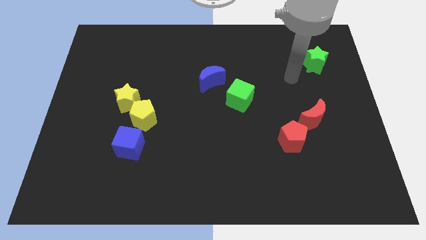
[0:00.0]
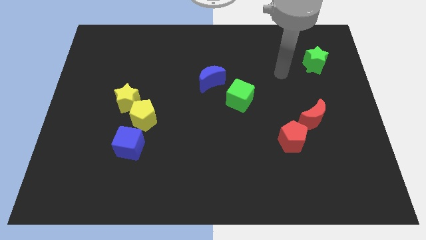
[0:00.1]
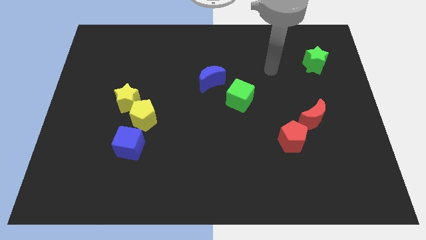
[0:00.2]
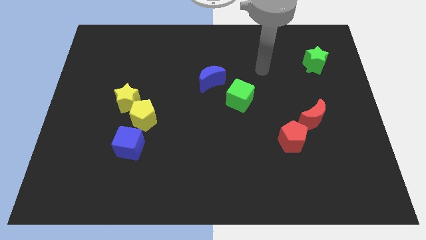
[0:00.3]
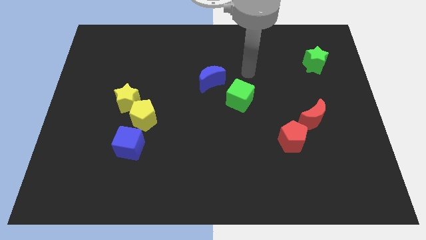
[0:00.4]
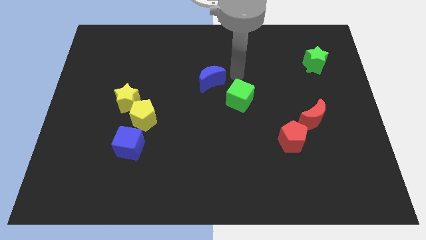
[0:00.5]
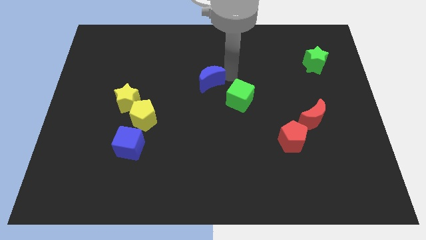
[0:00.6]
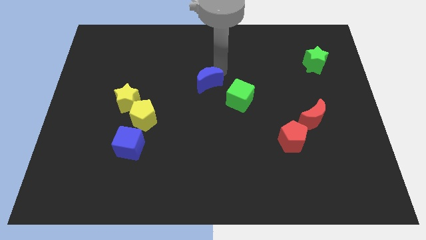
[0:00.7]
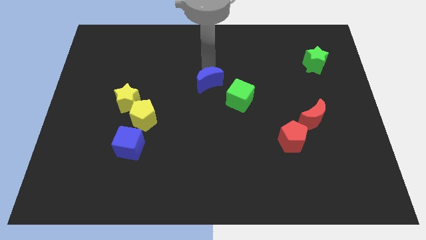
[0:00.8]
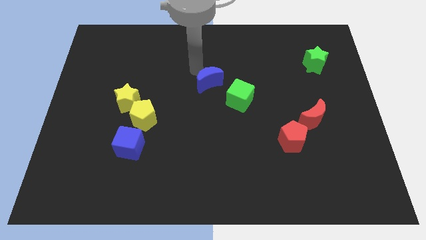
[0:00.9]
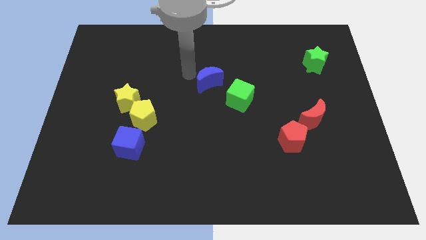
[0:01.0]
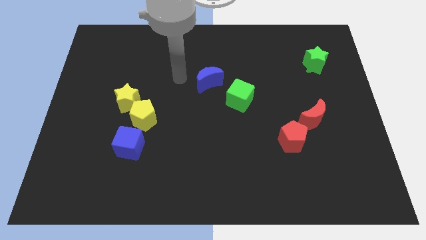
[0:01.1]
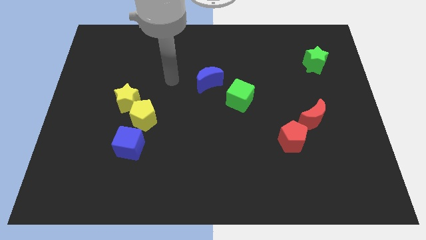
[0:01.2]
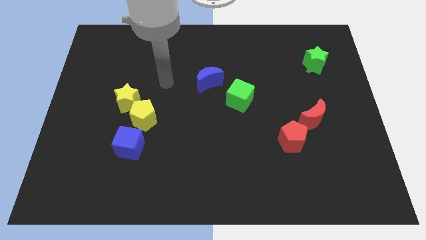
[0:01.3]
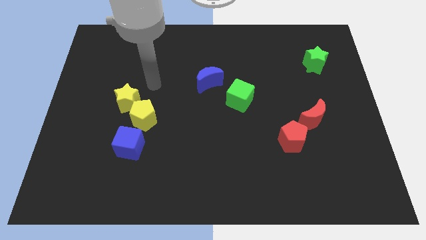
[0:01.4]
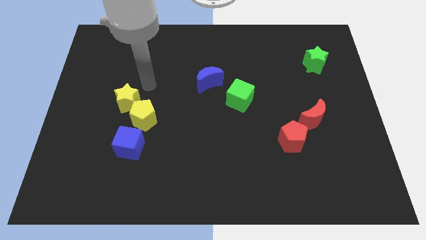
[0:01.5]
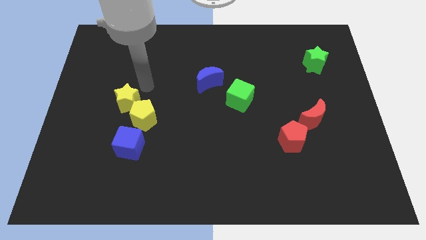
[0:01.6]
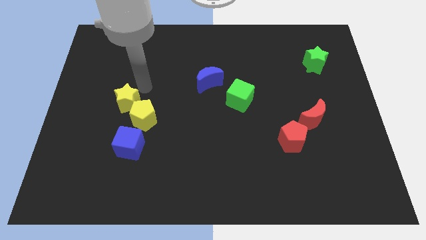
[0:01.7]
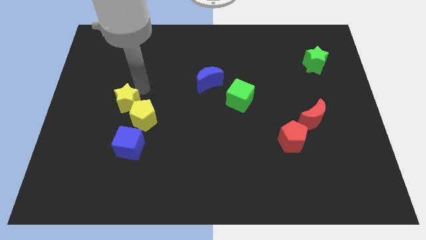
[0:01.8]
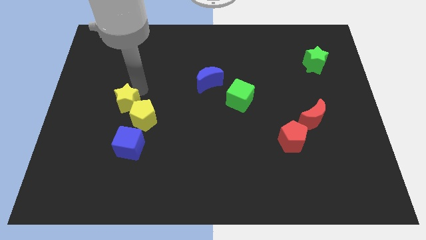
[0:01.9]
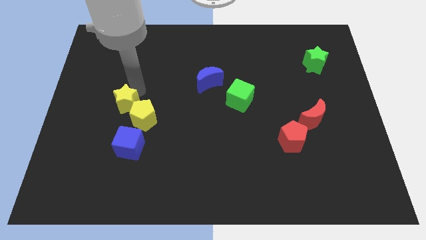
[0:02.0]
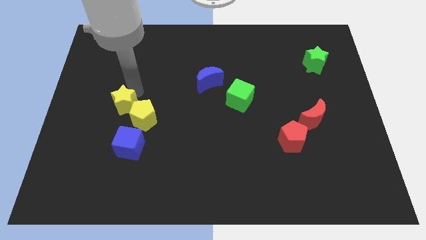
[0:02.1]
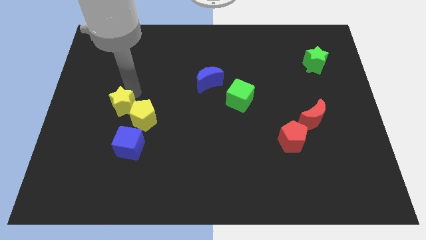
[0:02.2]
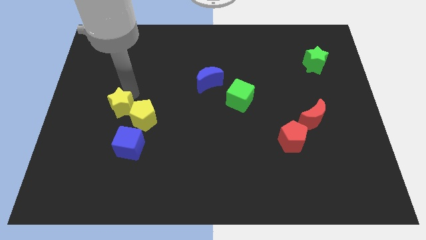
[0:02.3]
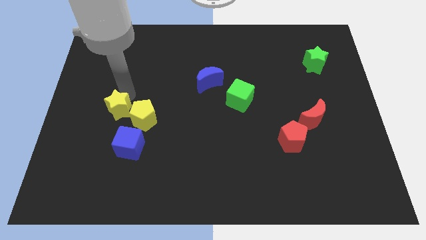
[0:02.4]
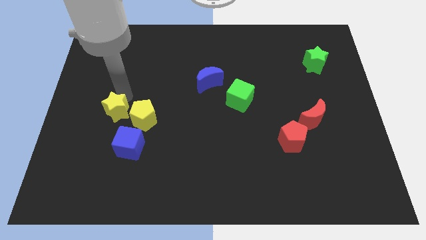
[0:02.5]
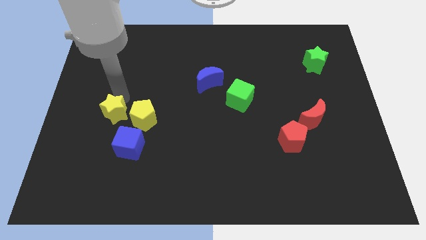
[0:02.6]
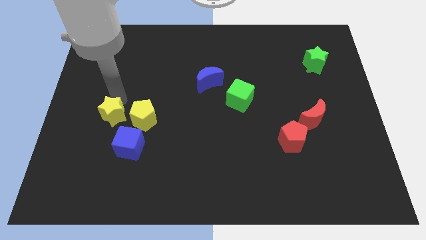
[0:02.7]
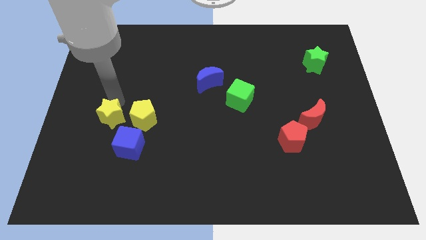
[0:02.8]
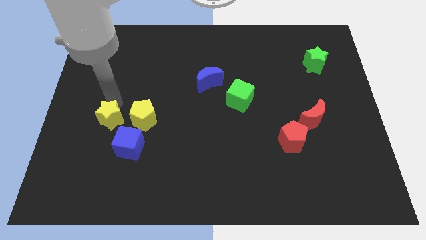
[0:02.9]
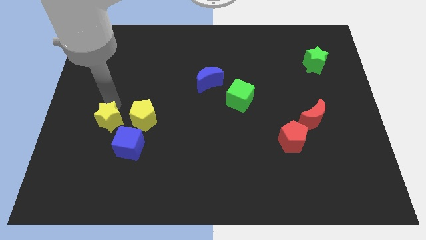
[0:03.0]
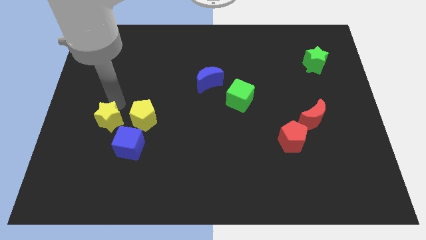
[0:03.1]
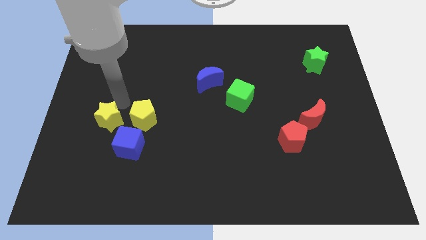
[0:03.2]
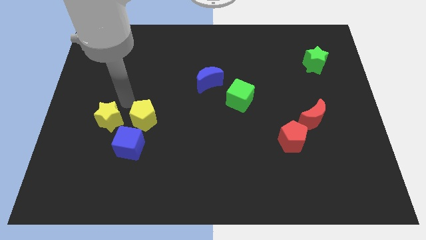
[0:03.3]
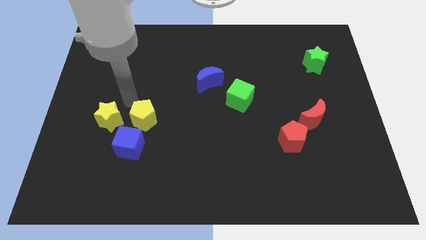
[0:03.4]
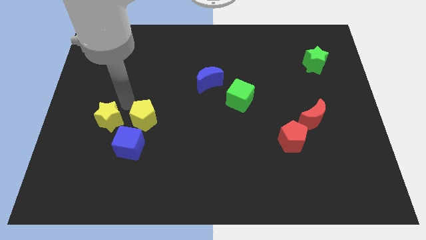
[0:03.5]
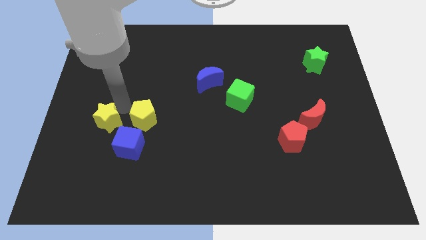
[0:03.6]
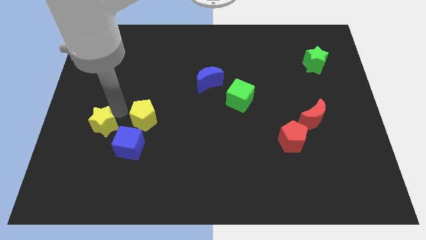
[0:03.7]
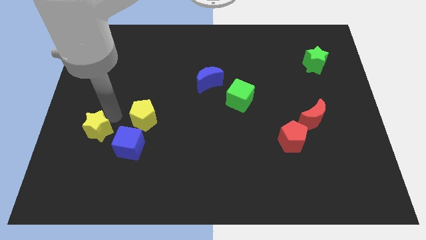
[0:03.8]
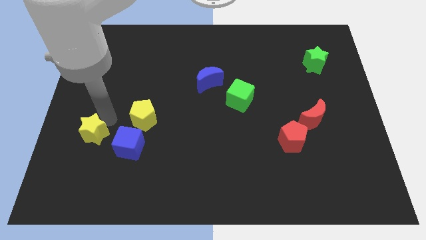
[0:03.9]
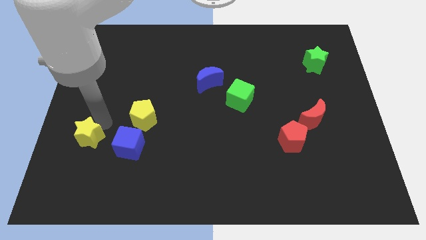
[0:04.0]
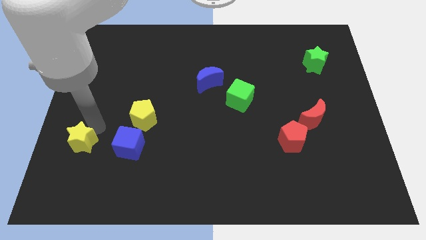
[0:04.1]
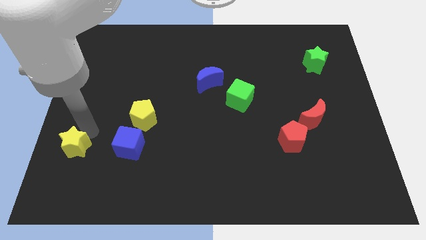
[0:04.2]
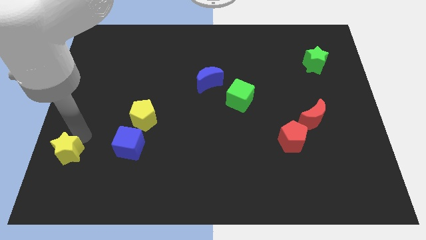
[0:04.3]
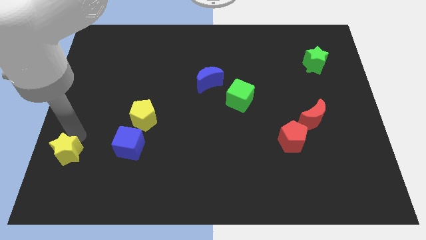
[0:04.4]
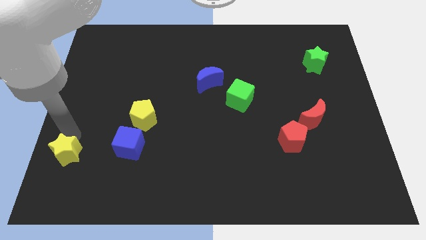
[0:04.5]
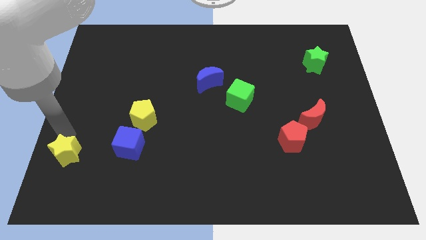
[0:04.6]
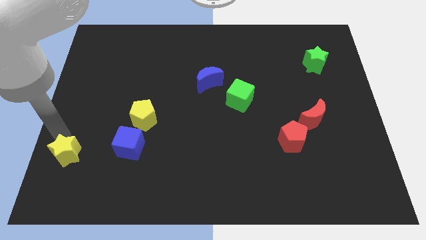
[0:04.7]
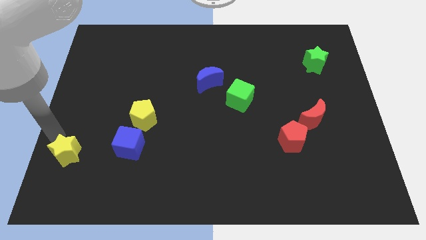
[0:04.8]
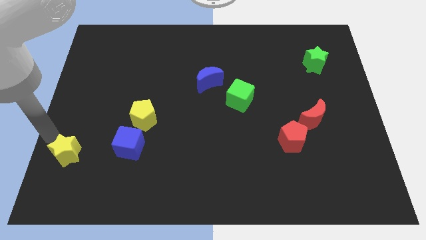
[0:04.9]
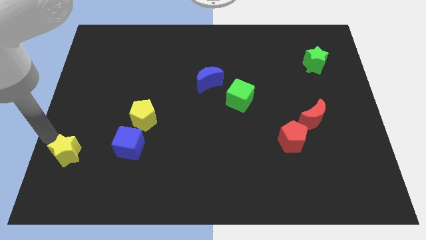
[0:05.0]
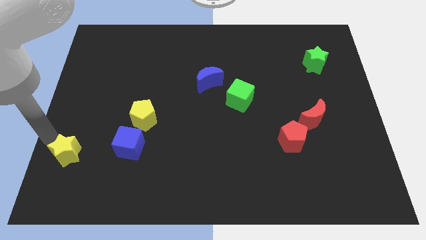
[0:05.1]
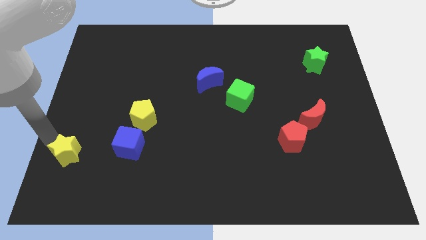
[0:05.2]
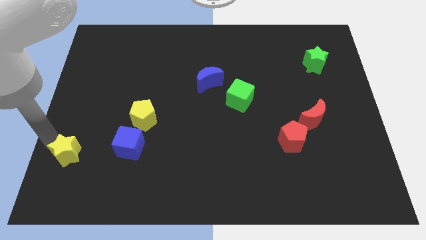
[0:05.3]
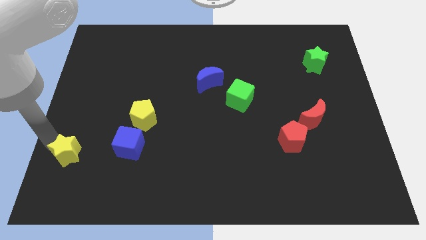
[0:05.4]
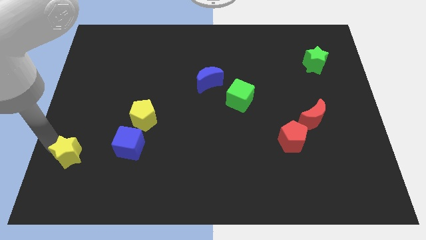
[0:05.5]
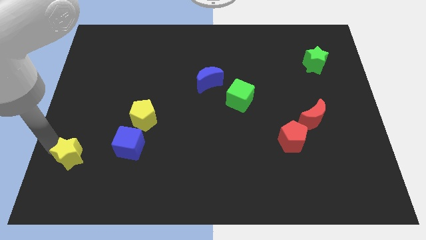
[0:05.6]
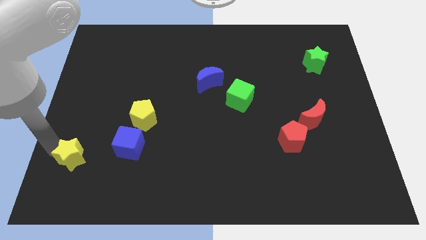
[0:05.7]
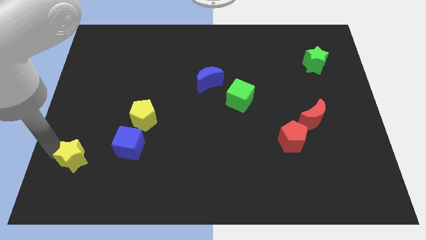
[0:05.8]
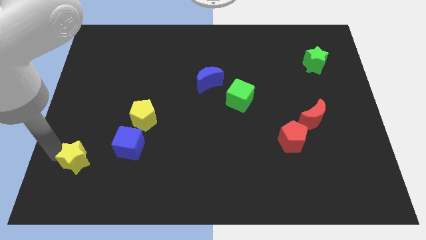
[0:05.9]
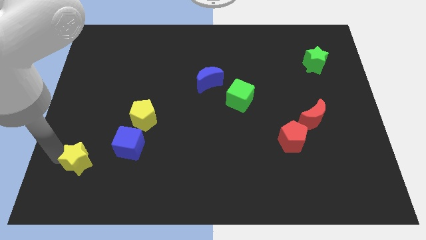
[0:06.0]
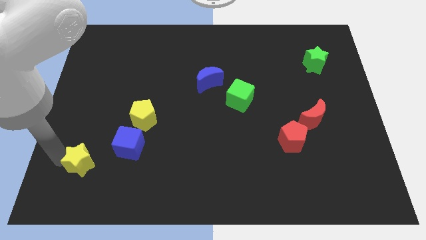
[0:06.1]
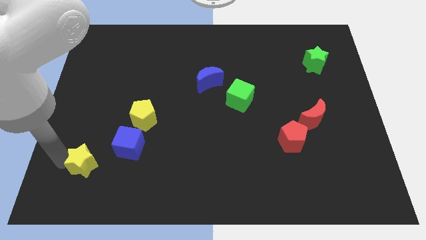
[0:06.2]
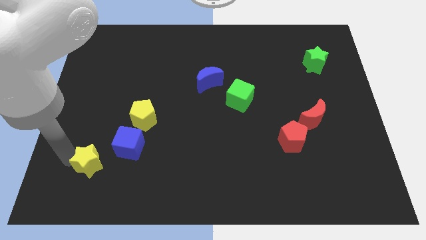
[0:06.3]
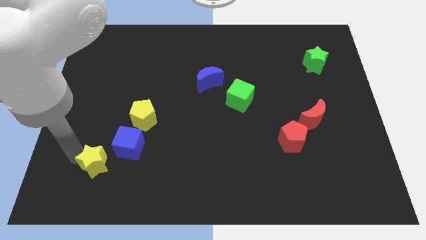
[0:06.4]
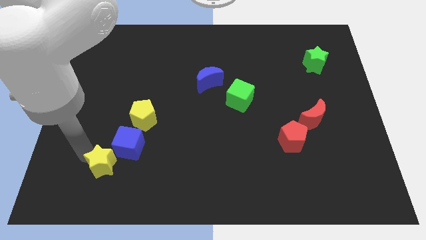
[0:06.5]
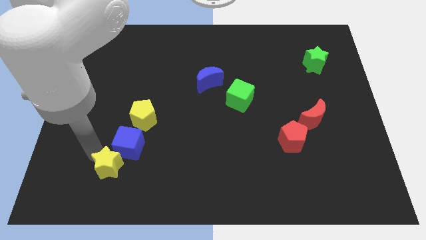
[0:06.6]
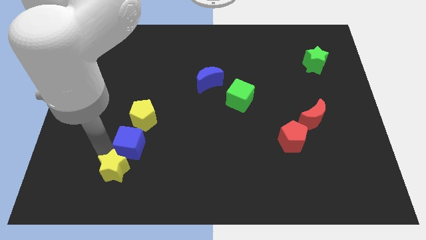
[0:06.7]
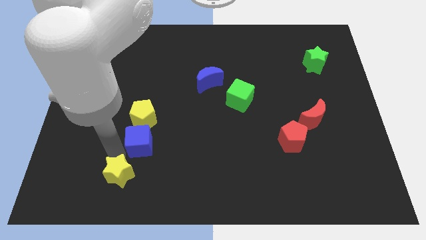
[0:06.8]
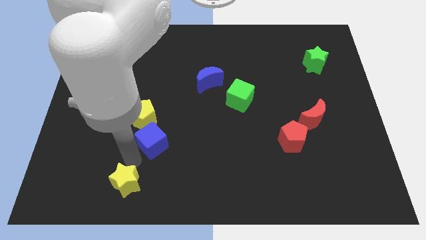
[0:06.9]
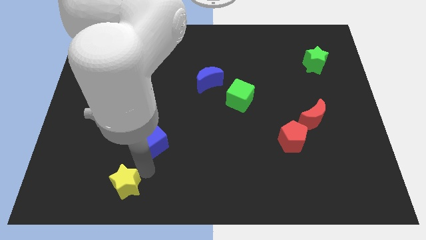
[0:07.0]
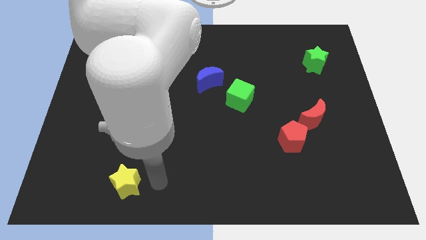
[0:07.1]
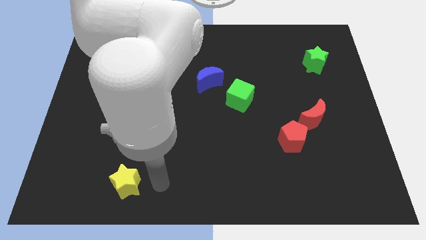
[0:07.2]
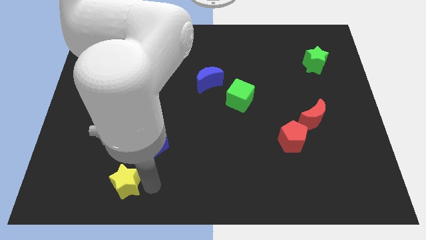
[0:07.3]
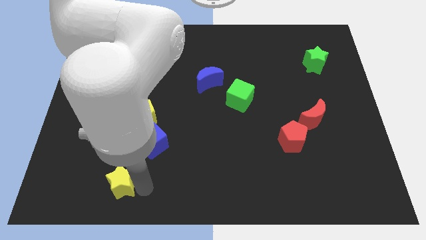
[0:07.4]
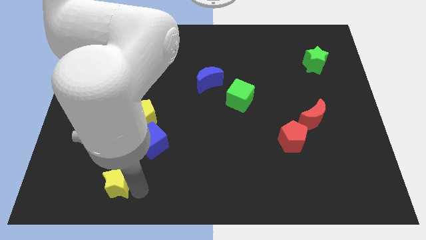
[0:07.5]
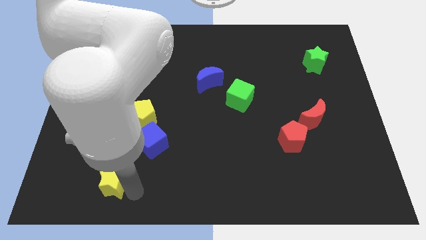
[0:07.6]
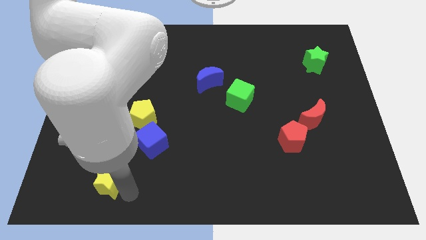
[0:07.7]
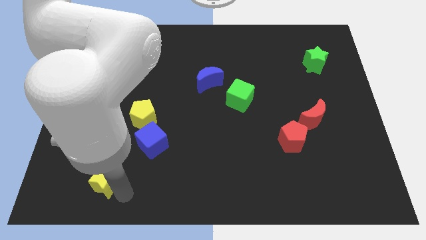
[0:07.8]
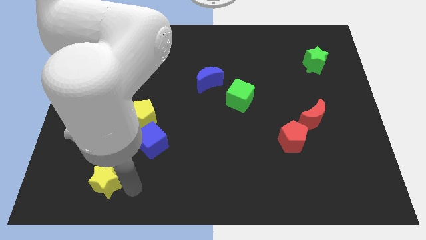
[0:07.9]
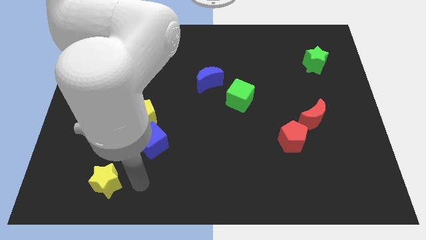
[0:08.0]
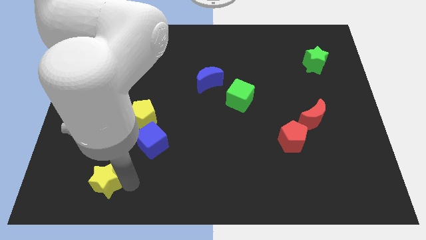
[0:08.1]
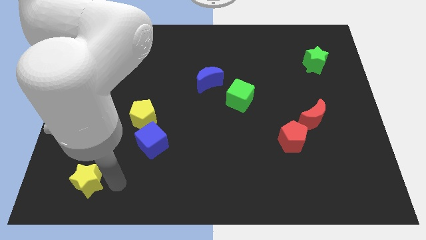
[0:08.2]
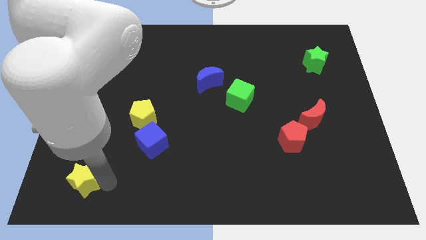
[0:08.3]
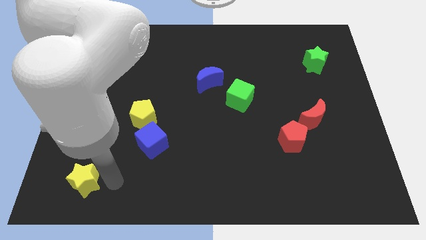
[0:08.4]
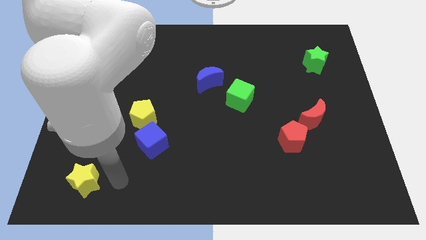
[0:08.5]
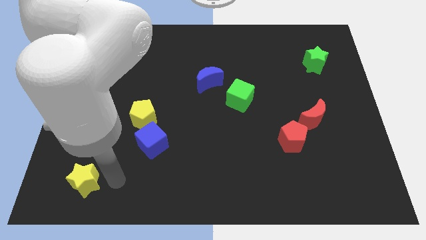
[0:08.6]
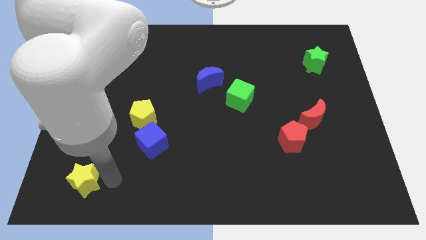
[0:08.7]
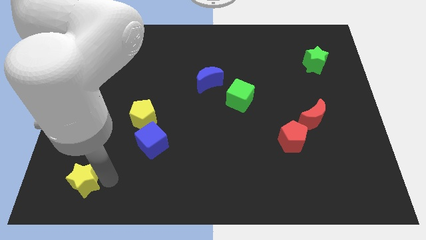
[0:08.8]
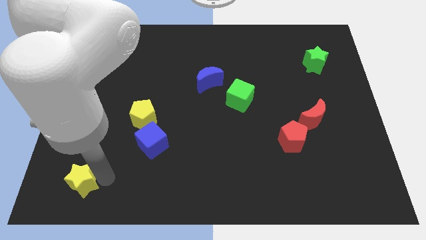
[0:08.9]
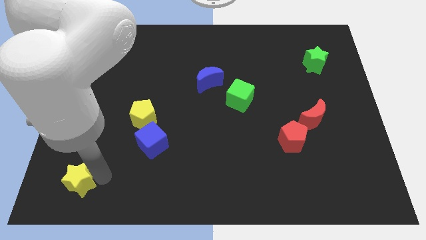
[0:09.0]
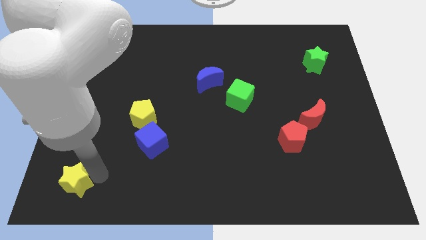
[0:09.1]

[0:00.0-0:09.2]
put the yellow star to the lower left corner
